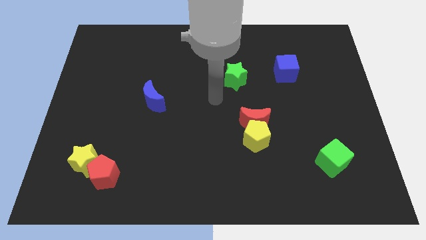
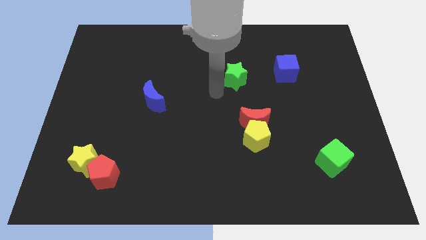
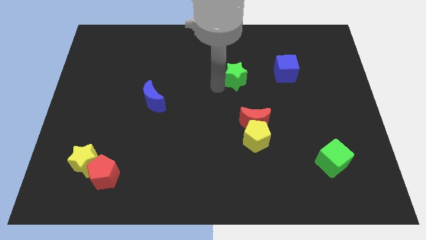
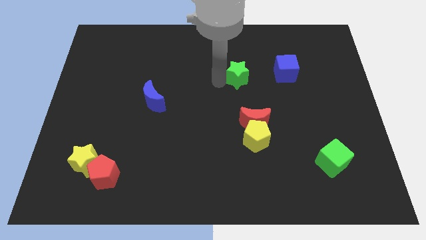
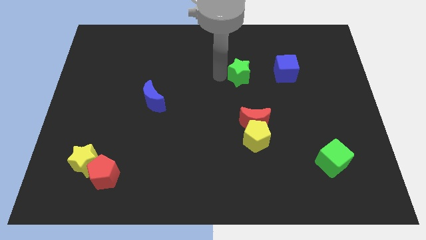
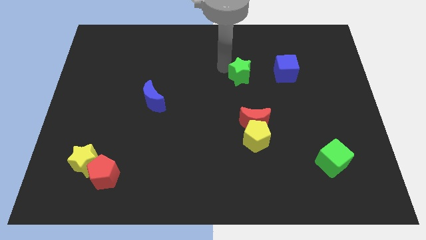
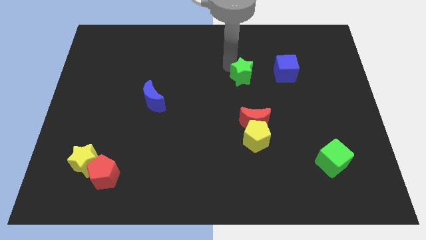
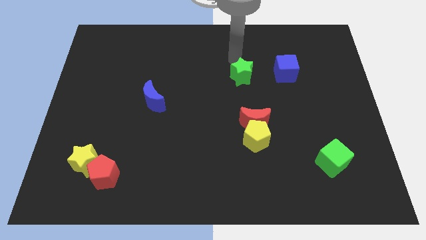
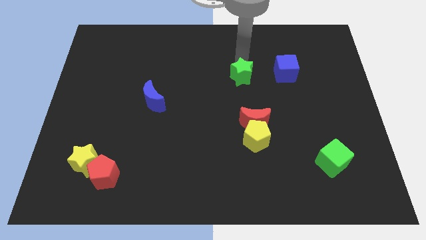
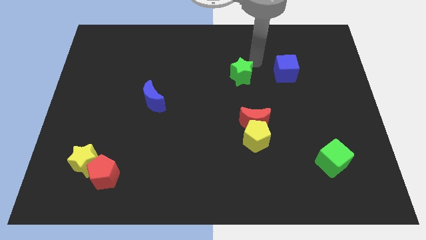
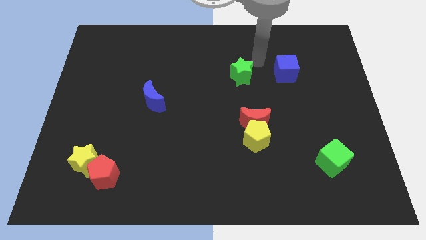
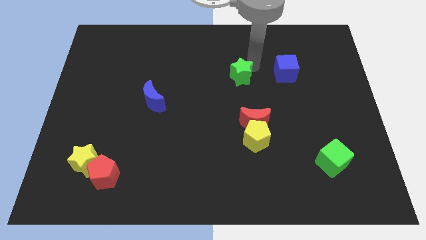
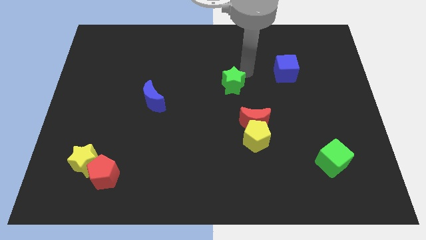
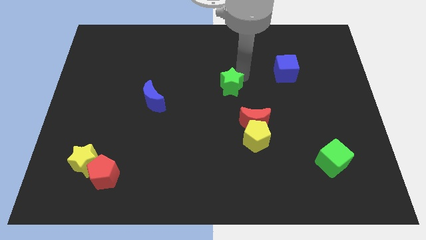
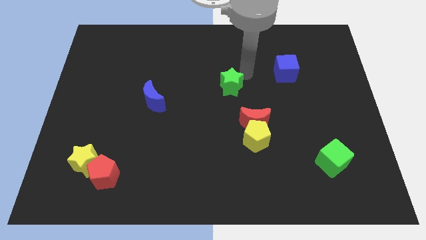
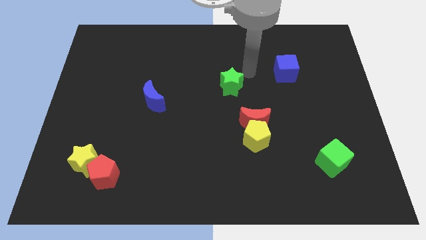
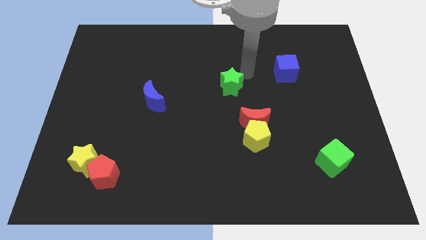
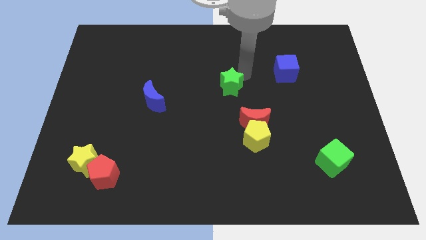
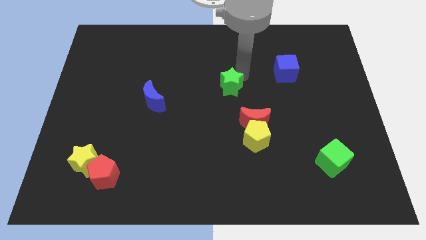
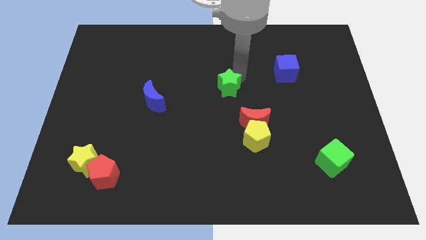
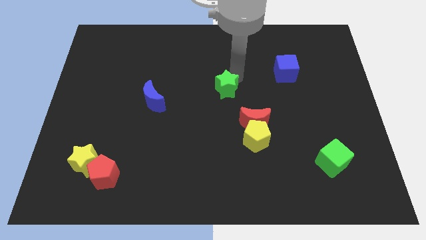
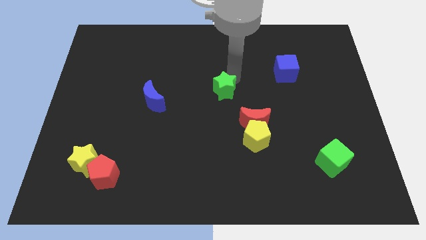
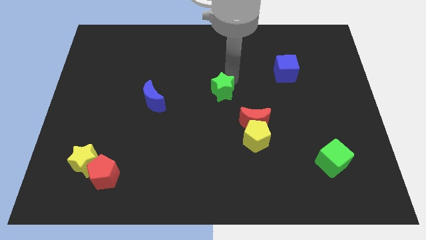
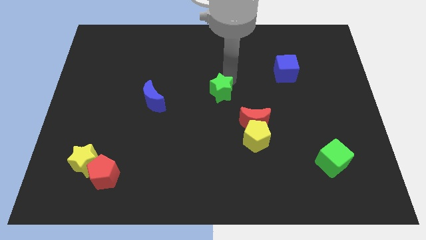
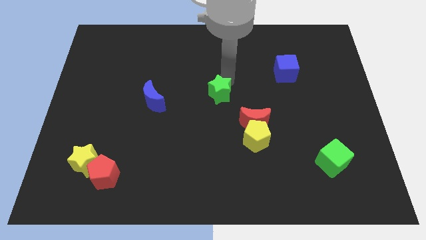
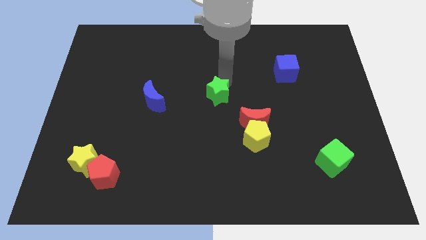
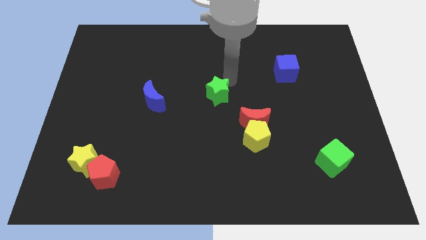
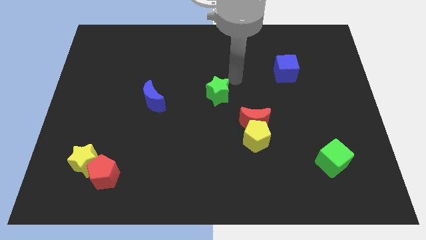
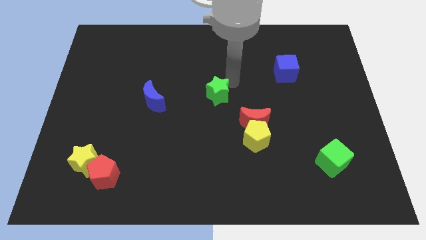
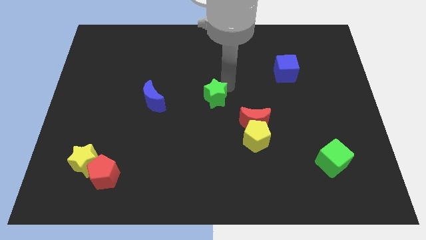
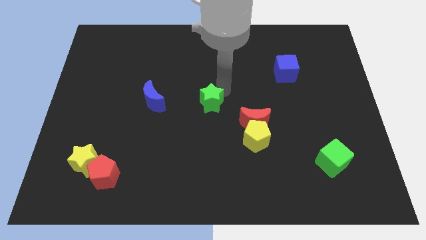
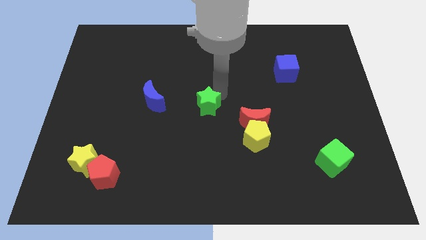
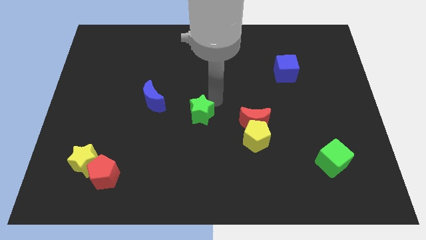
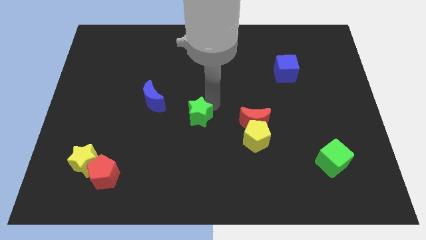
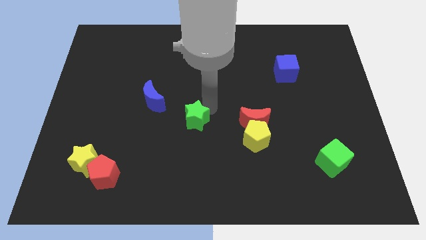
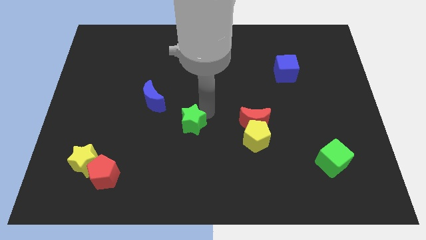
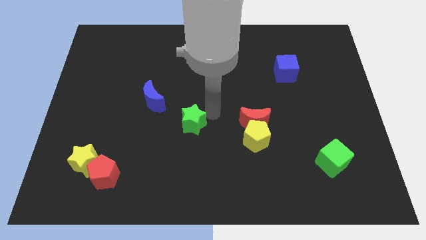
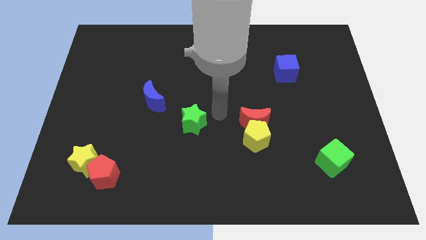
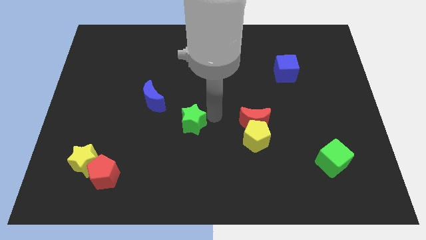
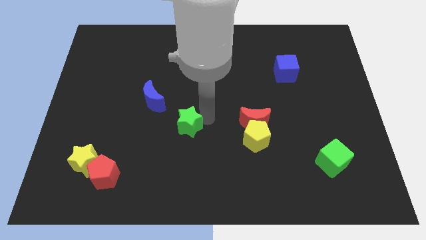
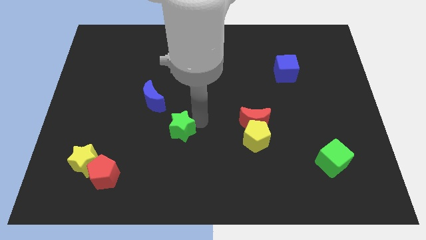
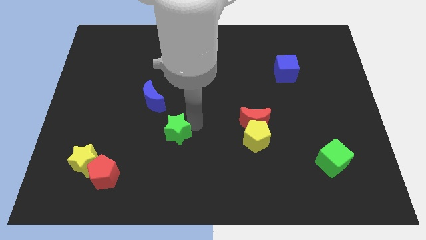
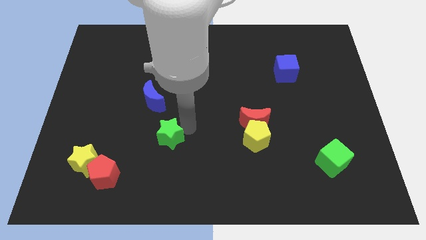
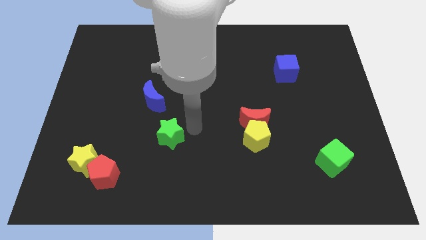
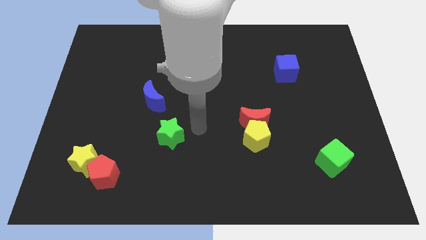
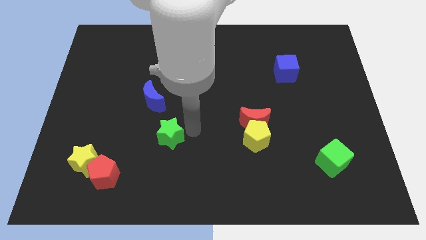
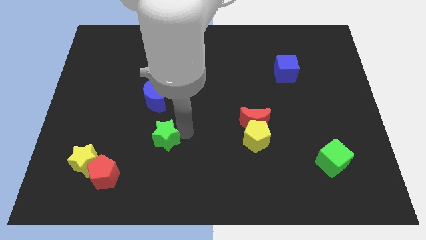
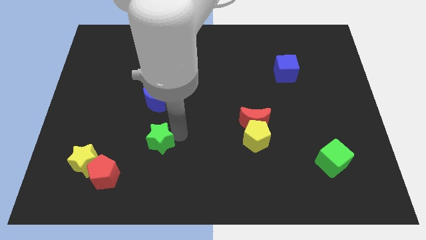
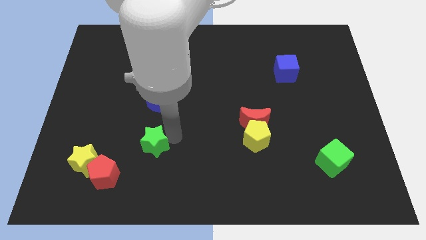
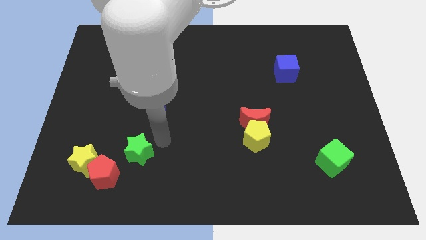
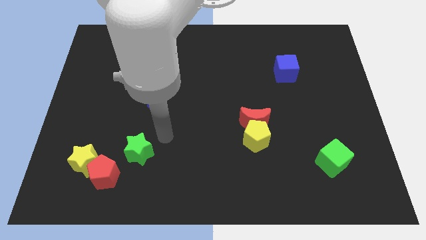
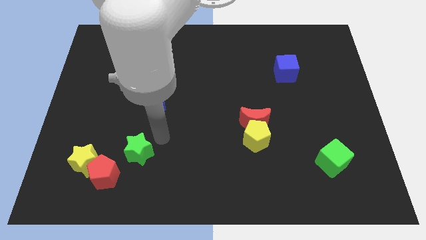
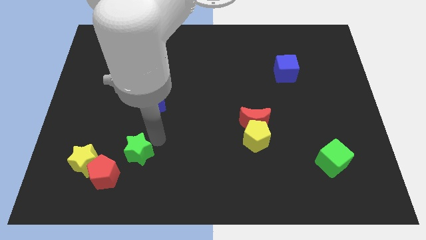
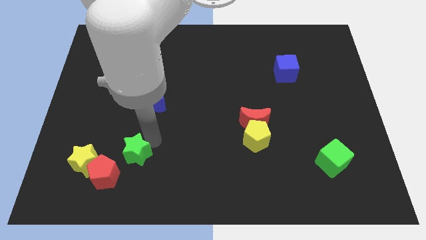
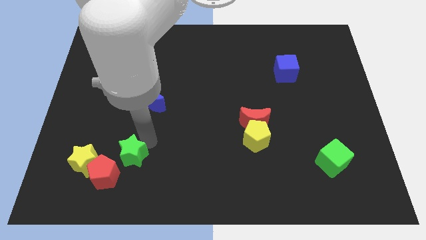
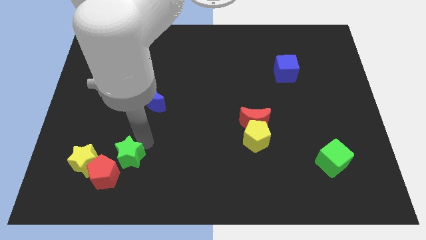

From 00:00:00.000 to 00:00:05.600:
move the green star towards the red pentagon

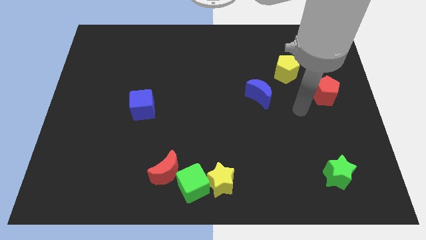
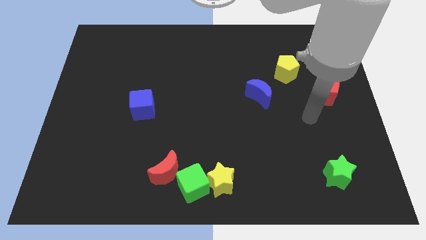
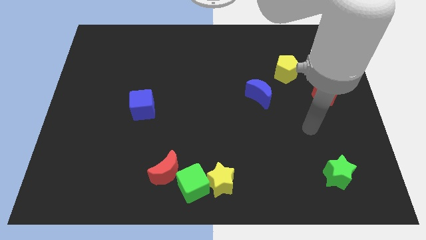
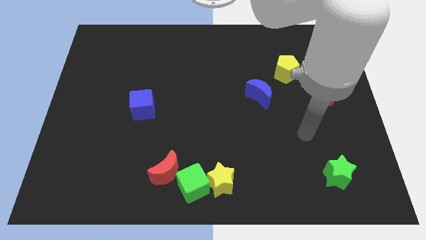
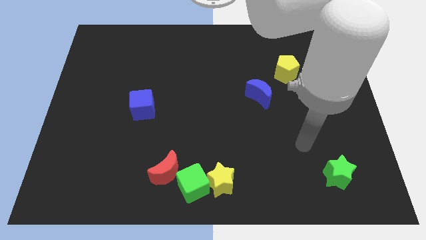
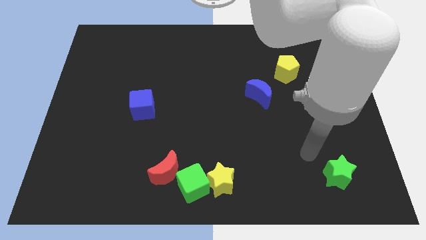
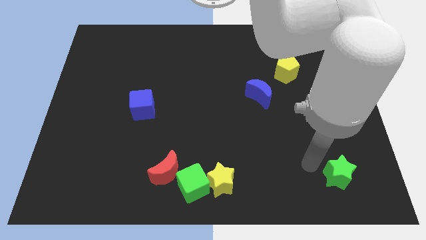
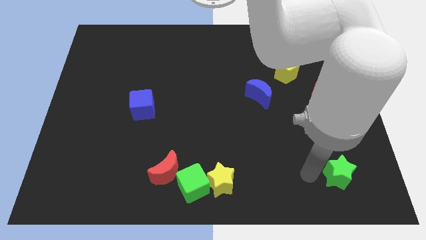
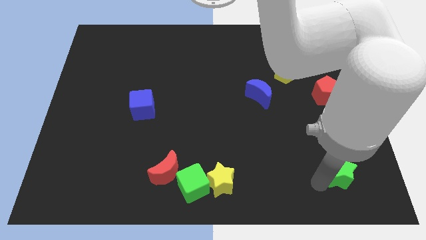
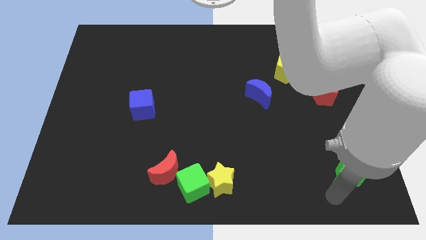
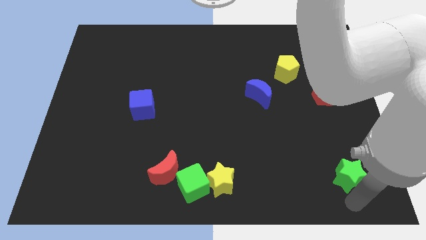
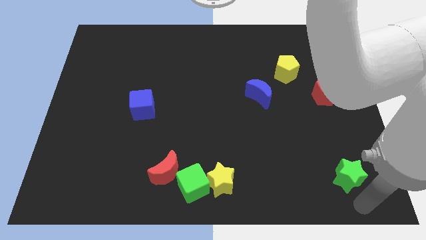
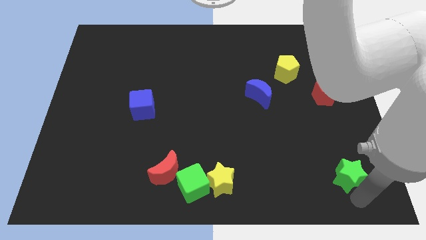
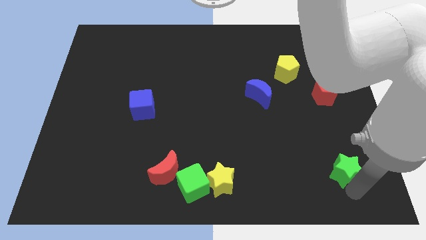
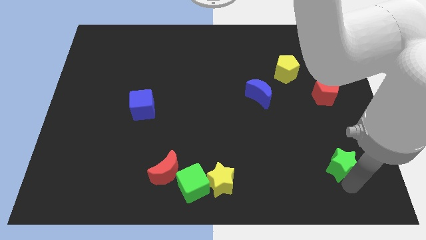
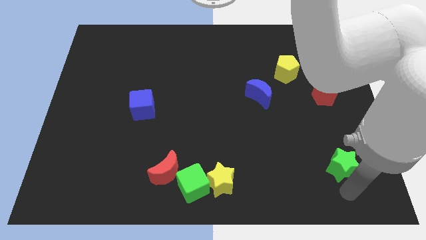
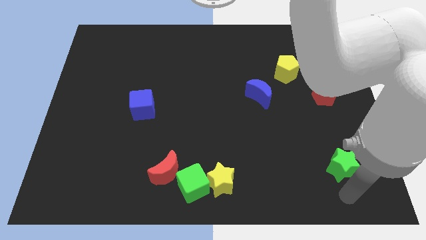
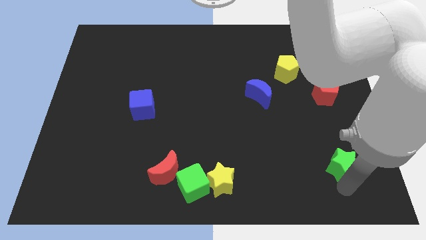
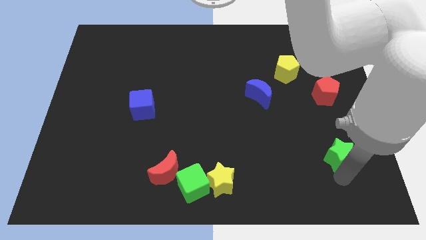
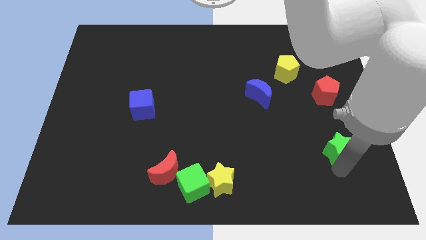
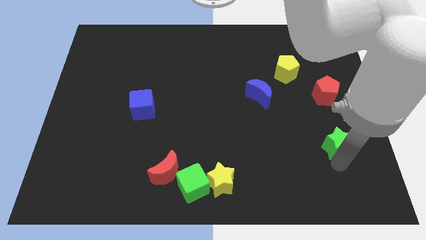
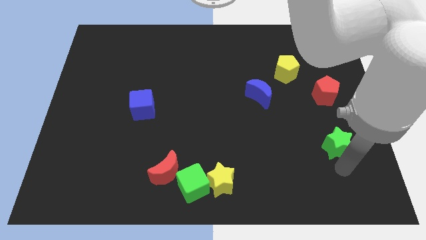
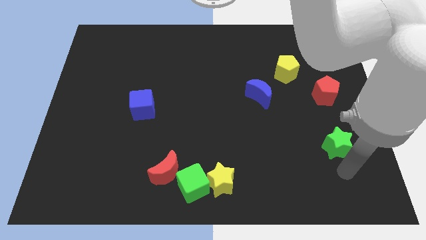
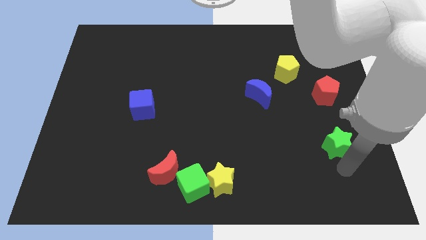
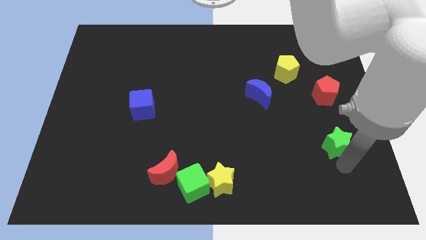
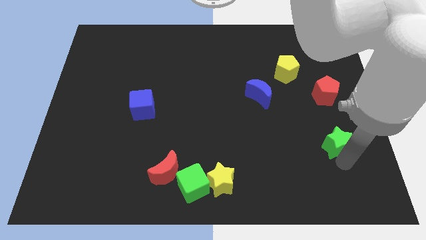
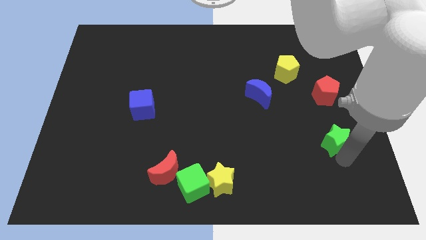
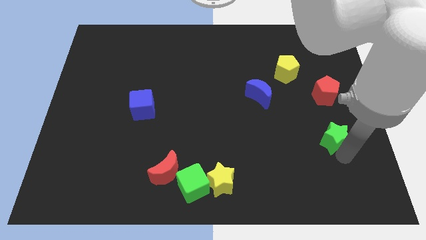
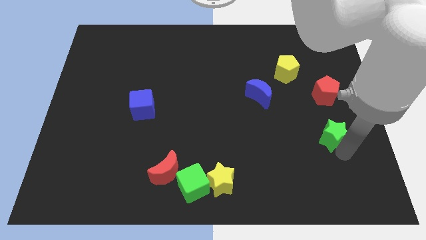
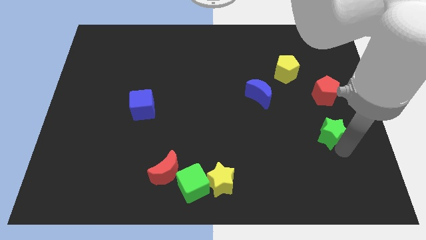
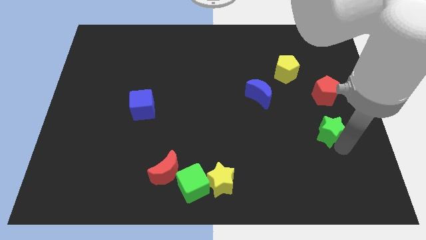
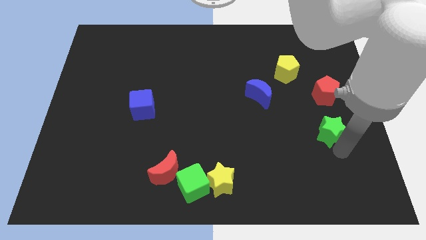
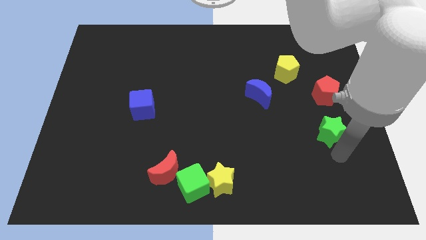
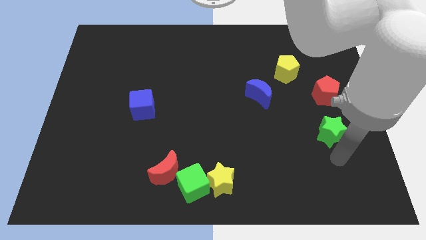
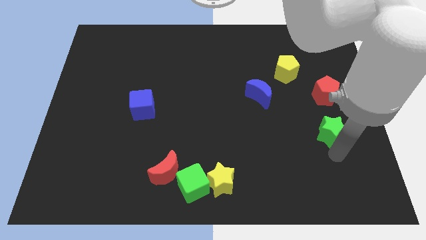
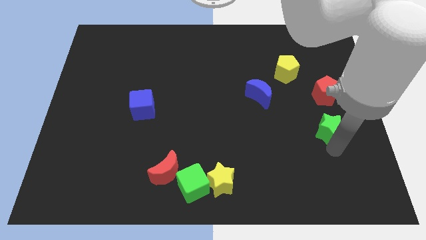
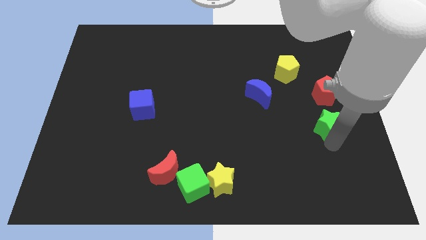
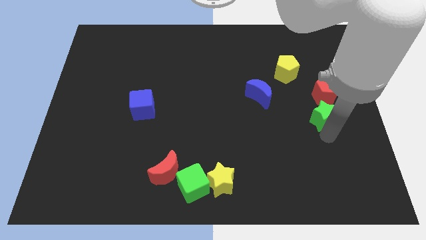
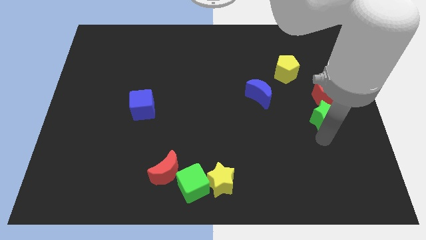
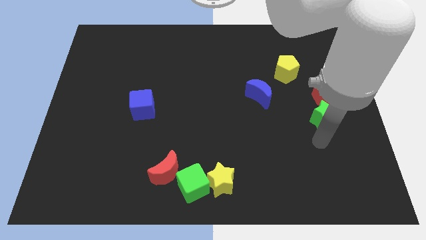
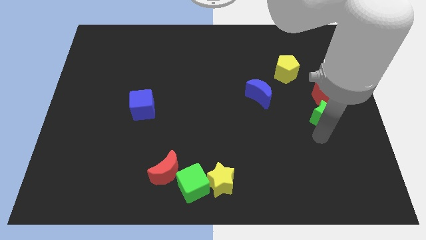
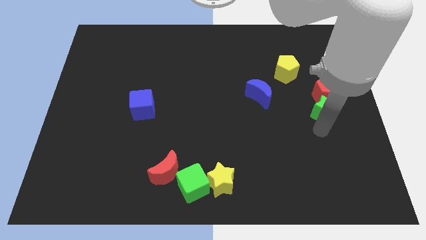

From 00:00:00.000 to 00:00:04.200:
move the green star close to the red pentagon
